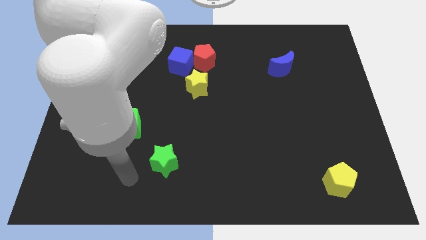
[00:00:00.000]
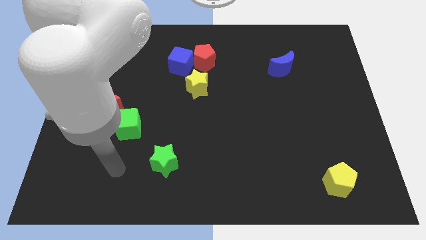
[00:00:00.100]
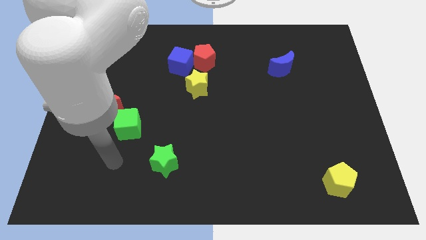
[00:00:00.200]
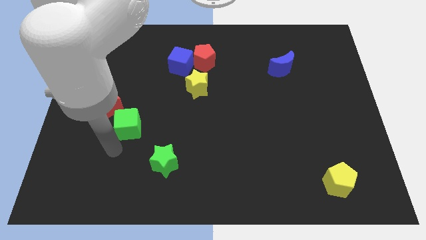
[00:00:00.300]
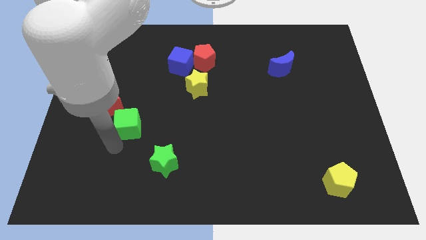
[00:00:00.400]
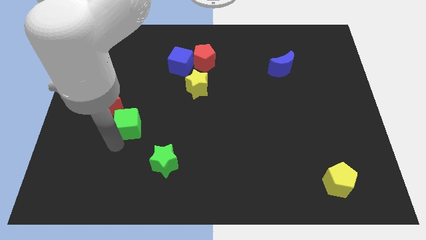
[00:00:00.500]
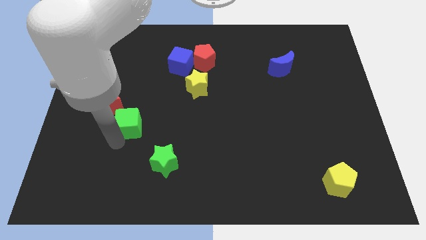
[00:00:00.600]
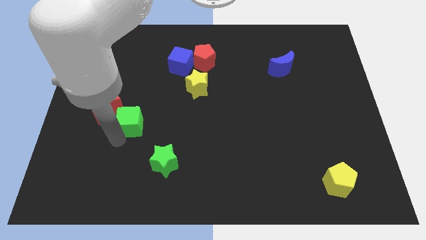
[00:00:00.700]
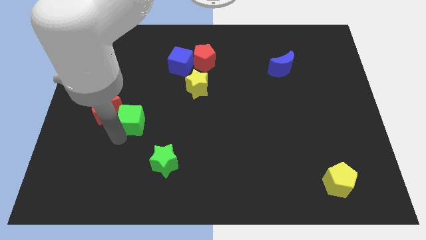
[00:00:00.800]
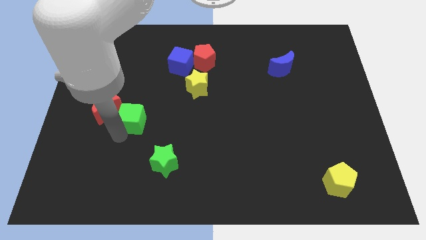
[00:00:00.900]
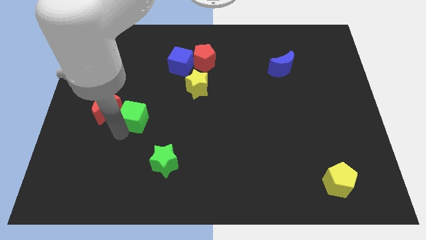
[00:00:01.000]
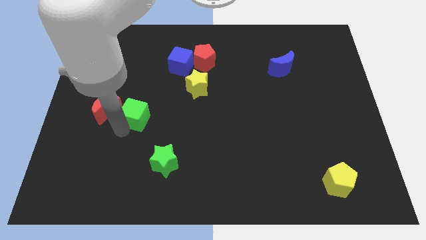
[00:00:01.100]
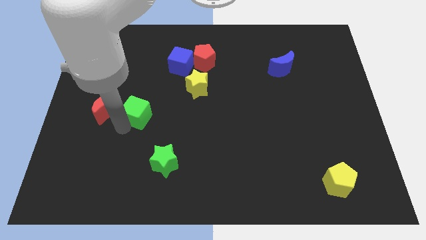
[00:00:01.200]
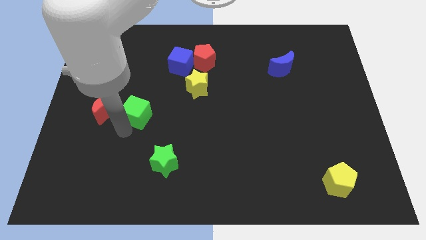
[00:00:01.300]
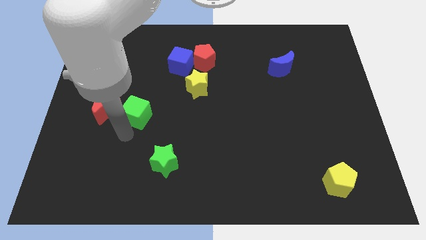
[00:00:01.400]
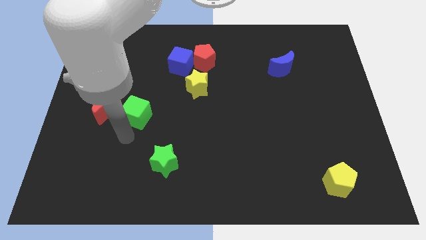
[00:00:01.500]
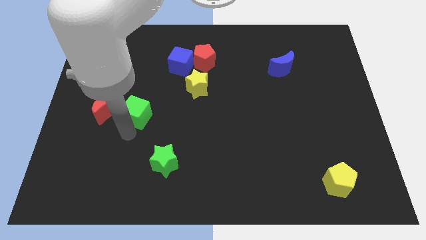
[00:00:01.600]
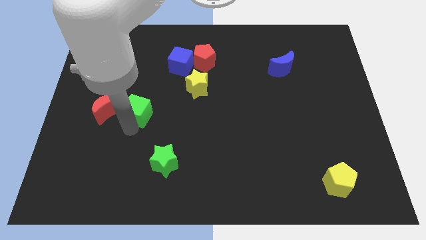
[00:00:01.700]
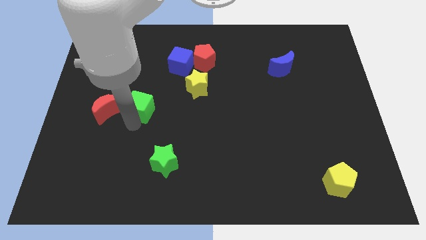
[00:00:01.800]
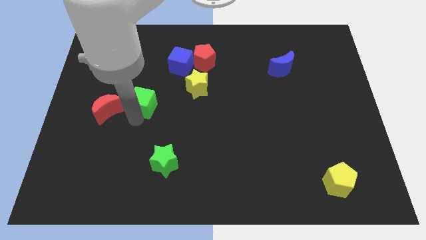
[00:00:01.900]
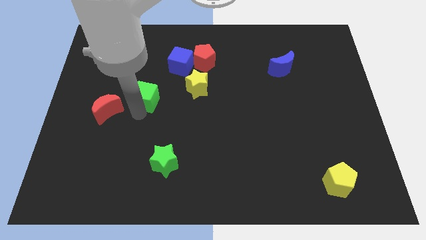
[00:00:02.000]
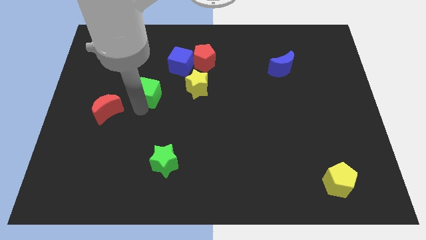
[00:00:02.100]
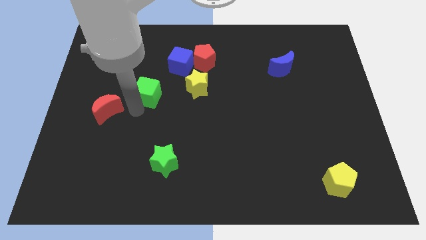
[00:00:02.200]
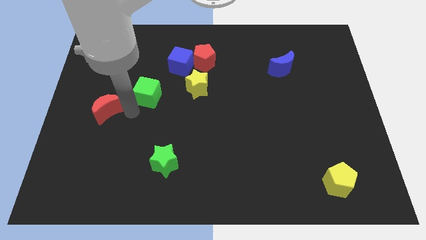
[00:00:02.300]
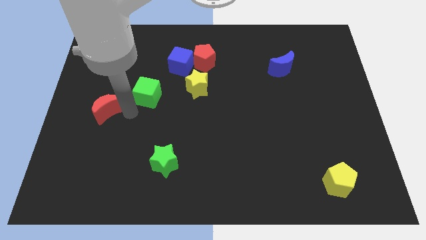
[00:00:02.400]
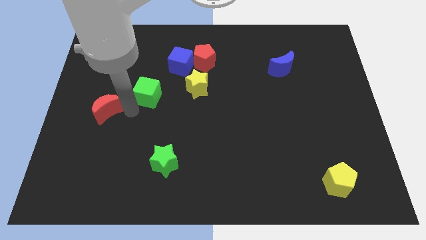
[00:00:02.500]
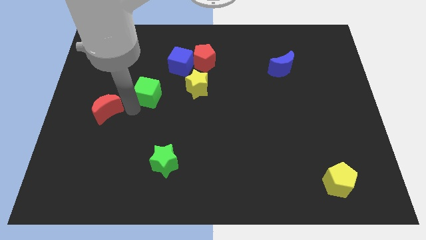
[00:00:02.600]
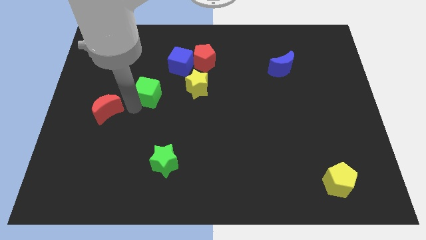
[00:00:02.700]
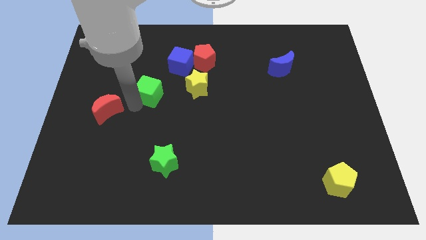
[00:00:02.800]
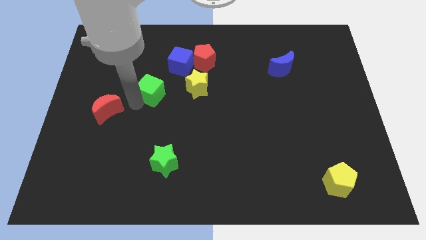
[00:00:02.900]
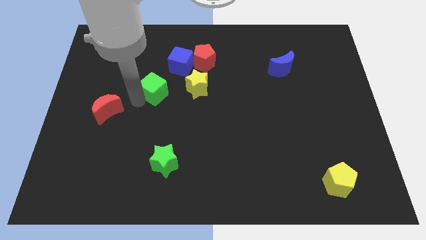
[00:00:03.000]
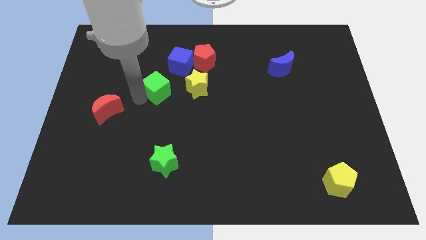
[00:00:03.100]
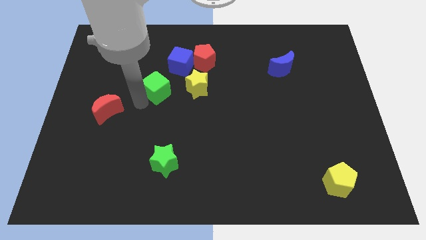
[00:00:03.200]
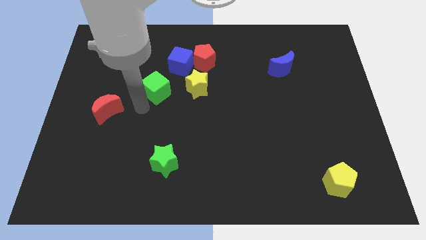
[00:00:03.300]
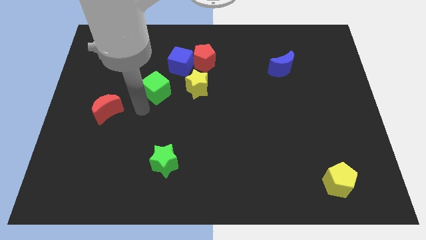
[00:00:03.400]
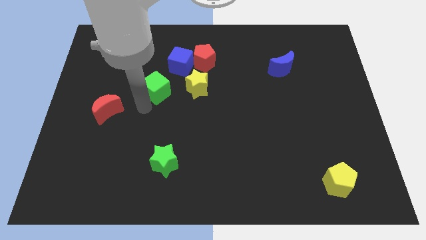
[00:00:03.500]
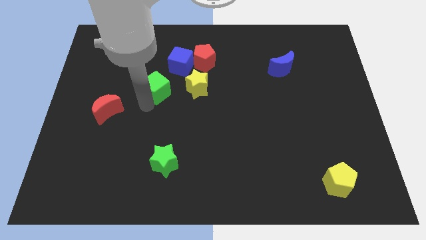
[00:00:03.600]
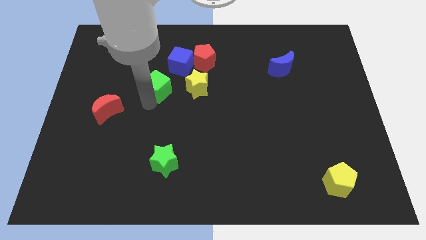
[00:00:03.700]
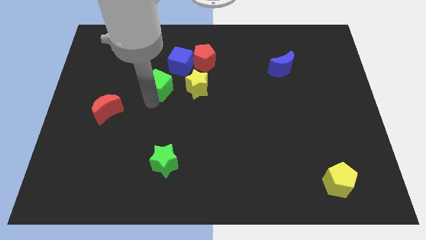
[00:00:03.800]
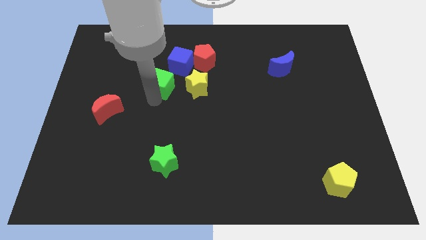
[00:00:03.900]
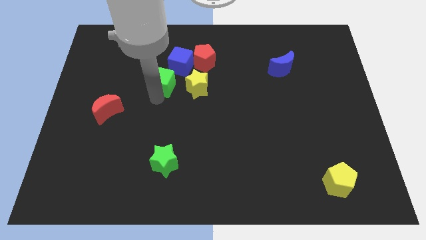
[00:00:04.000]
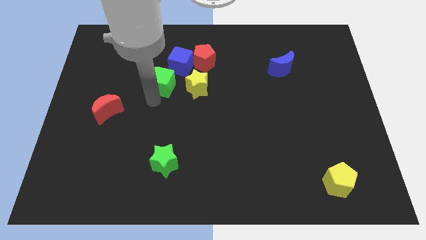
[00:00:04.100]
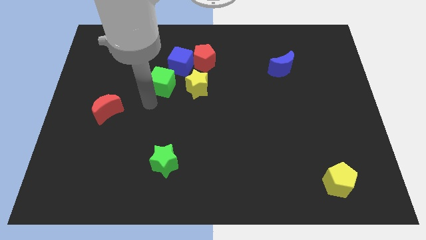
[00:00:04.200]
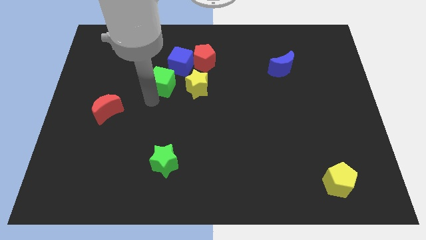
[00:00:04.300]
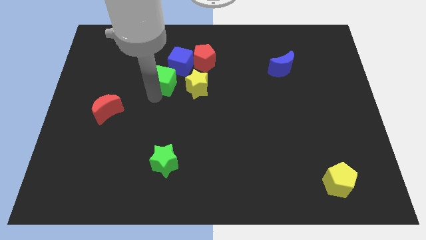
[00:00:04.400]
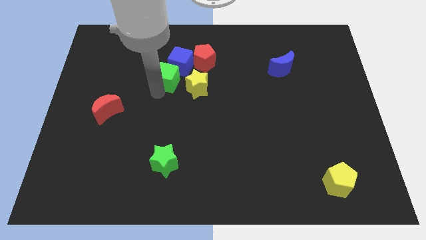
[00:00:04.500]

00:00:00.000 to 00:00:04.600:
slide the green cube towards the blue cube

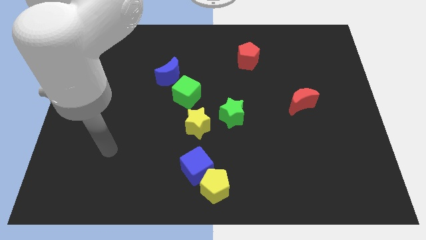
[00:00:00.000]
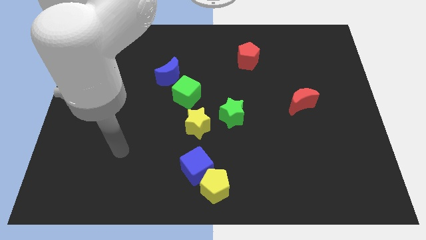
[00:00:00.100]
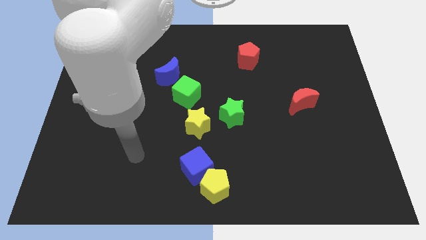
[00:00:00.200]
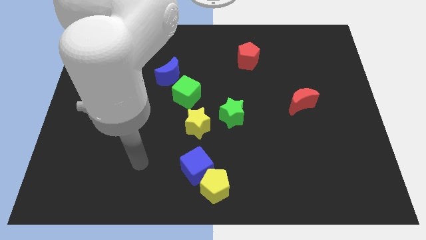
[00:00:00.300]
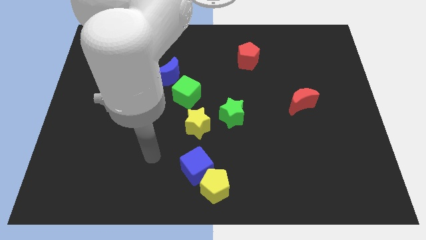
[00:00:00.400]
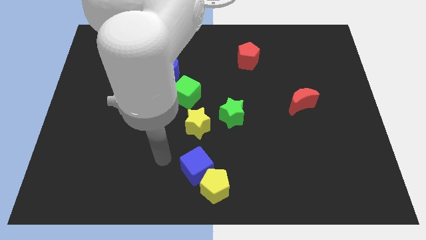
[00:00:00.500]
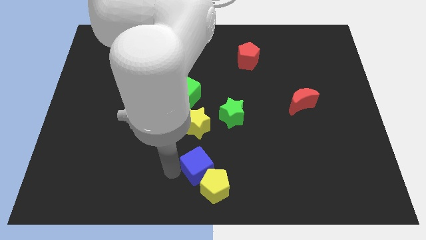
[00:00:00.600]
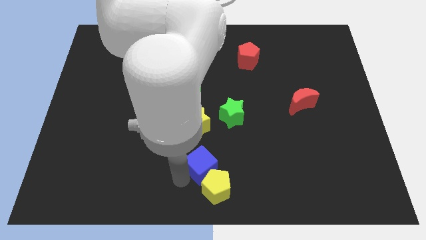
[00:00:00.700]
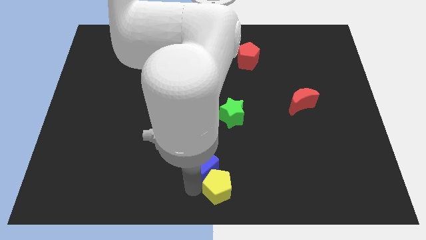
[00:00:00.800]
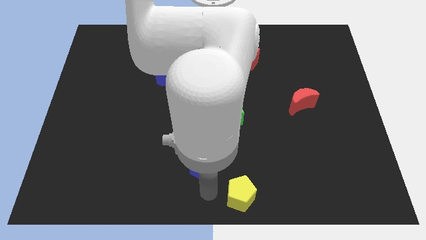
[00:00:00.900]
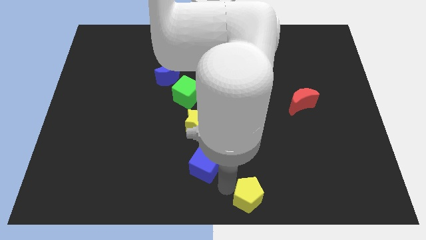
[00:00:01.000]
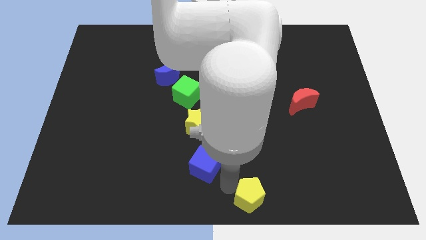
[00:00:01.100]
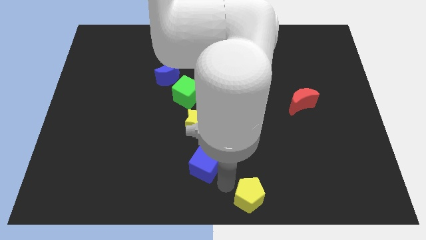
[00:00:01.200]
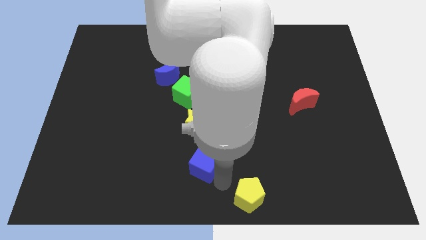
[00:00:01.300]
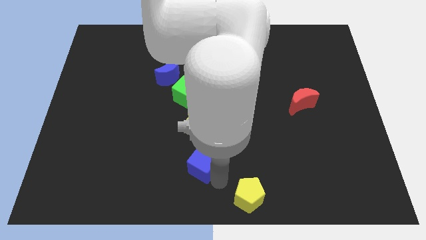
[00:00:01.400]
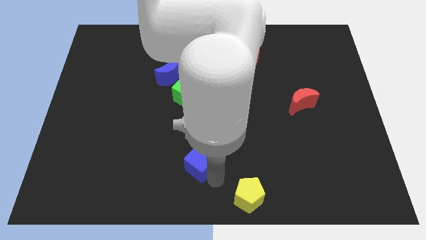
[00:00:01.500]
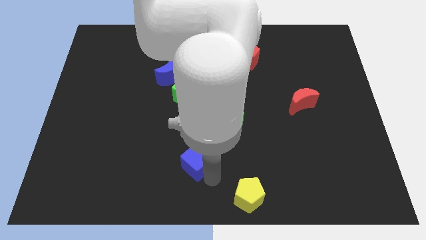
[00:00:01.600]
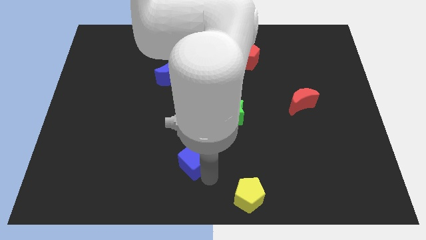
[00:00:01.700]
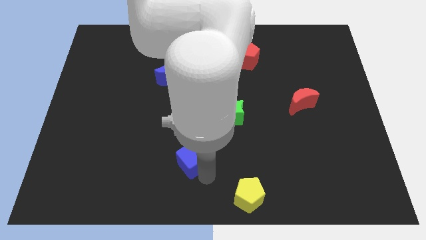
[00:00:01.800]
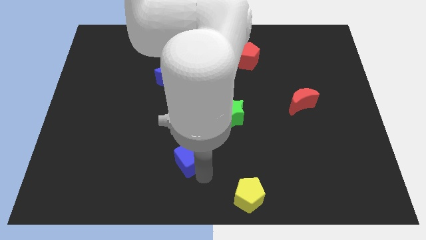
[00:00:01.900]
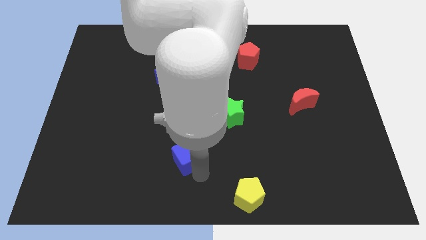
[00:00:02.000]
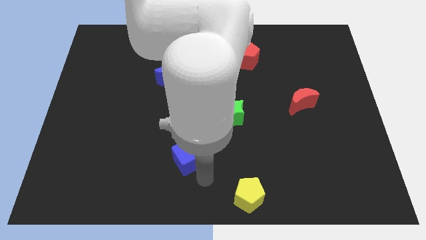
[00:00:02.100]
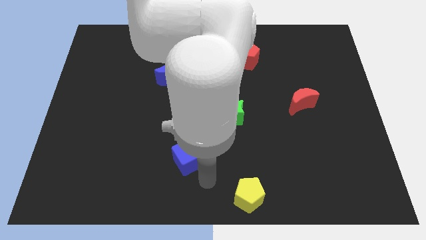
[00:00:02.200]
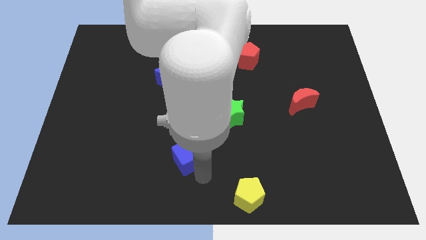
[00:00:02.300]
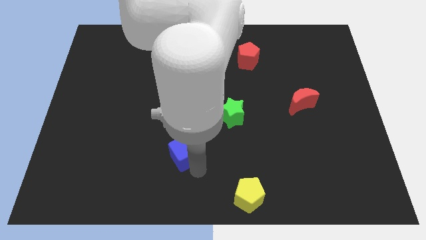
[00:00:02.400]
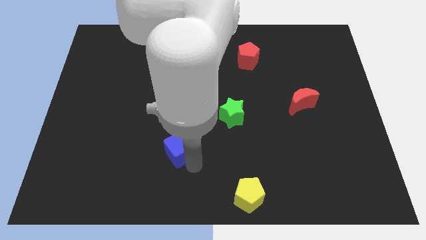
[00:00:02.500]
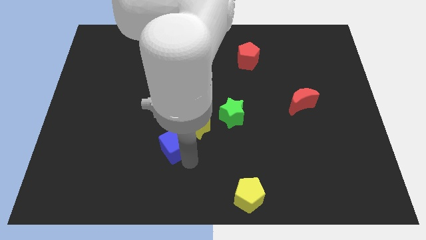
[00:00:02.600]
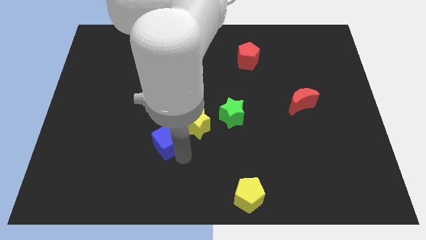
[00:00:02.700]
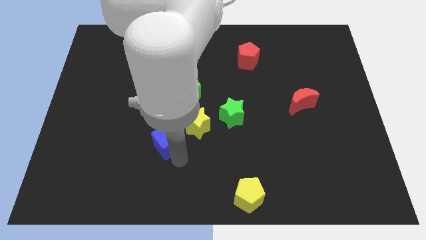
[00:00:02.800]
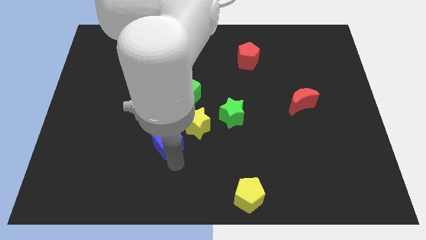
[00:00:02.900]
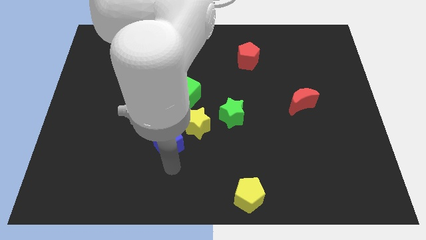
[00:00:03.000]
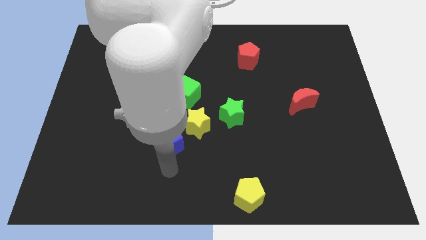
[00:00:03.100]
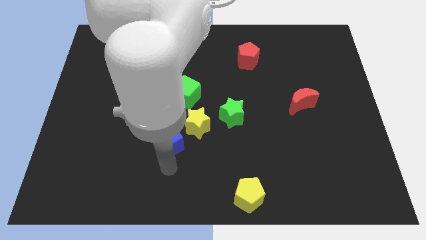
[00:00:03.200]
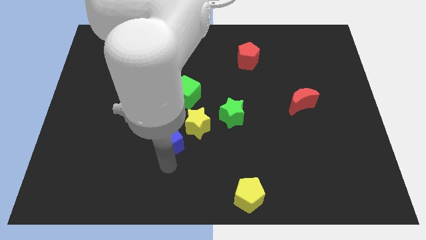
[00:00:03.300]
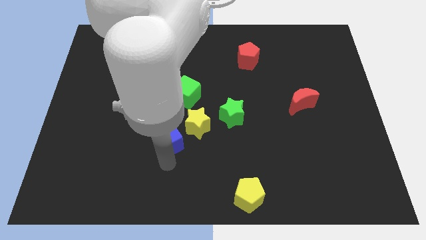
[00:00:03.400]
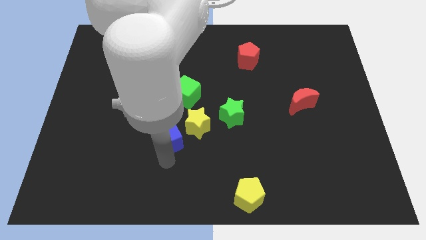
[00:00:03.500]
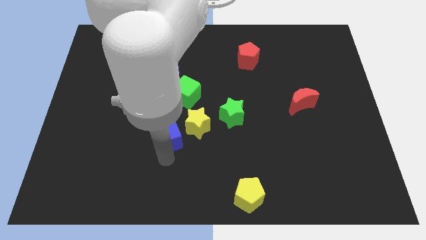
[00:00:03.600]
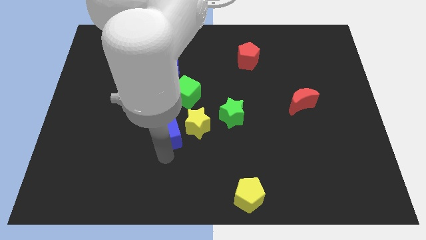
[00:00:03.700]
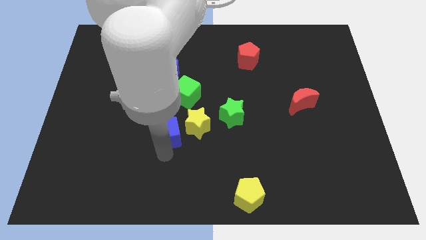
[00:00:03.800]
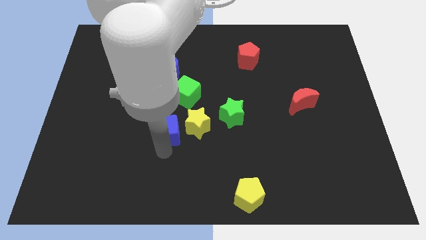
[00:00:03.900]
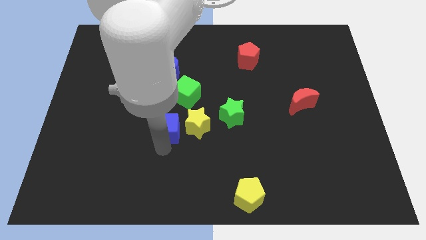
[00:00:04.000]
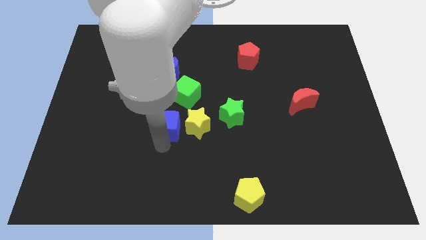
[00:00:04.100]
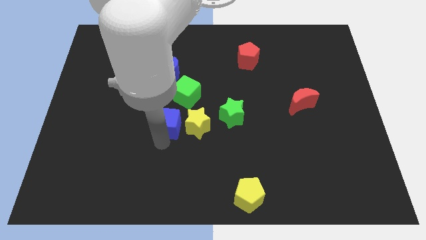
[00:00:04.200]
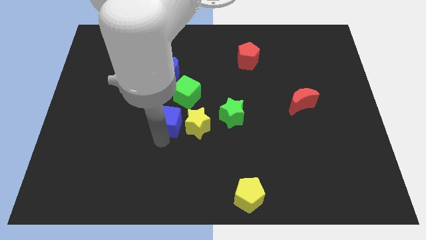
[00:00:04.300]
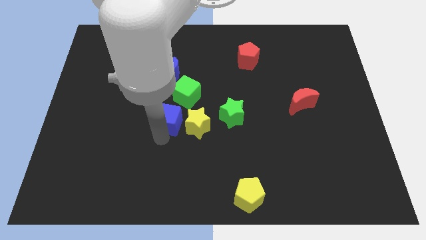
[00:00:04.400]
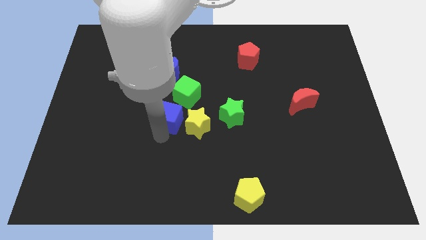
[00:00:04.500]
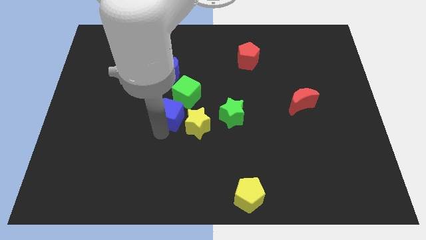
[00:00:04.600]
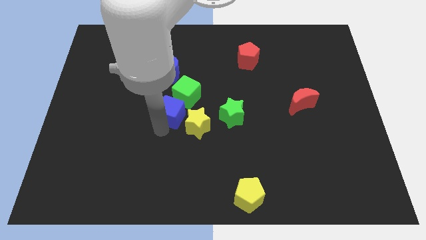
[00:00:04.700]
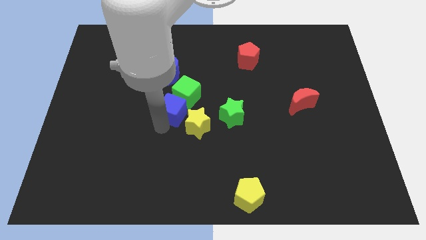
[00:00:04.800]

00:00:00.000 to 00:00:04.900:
slide the blue cube towards the green cube
